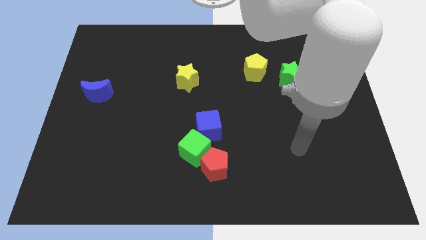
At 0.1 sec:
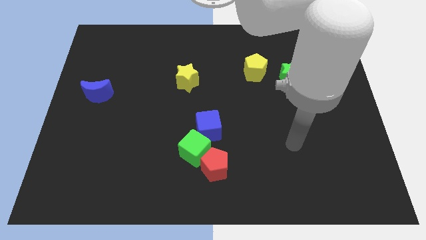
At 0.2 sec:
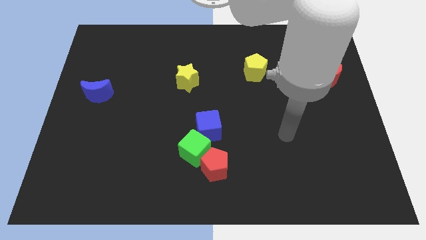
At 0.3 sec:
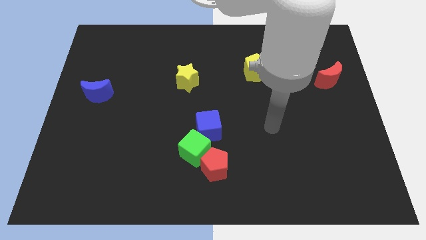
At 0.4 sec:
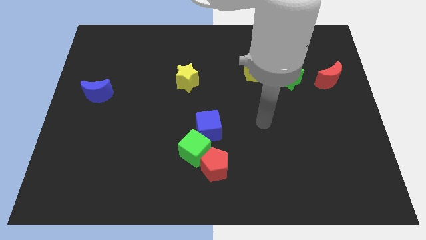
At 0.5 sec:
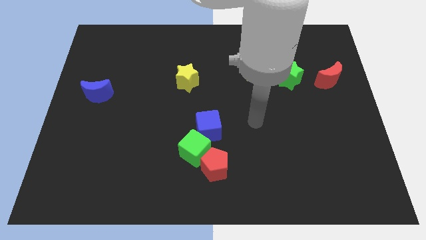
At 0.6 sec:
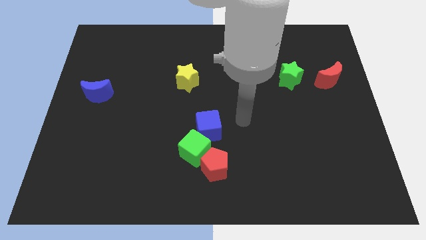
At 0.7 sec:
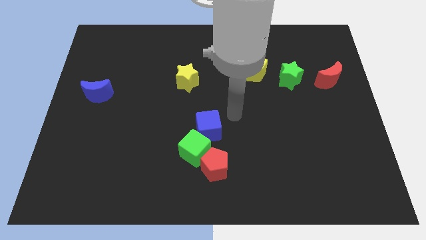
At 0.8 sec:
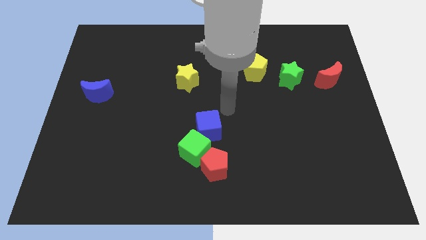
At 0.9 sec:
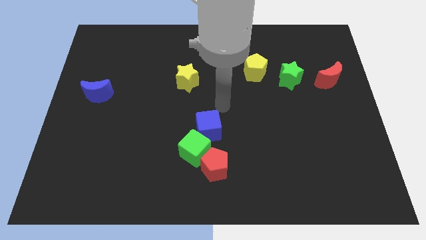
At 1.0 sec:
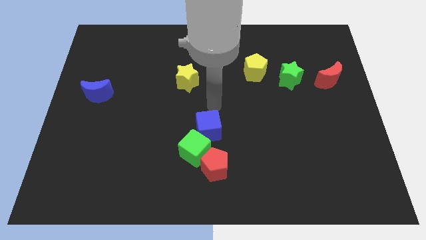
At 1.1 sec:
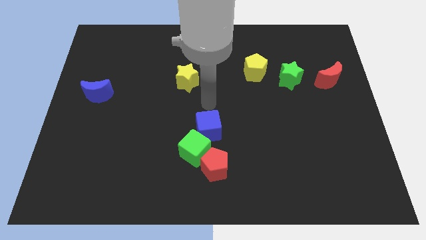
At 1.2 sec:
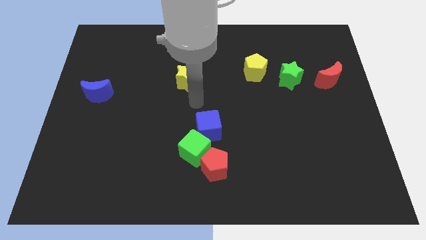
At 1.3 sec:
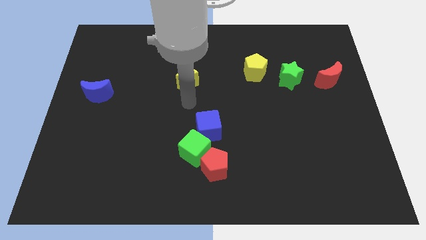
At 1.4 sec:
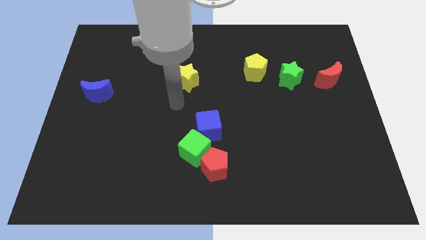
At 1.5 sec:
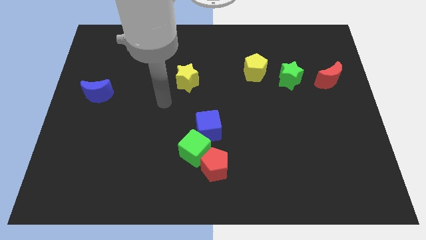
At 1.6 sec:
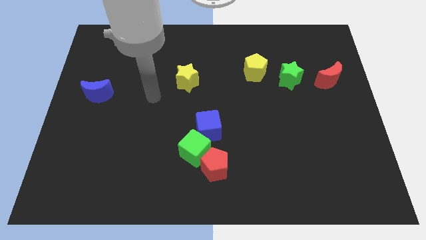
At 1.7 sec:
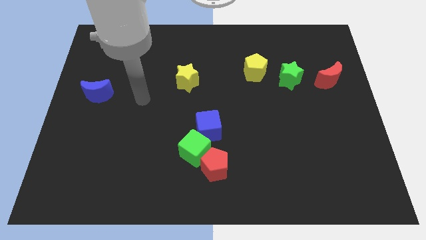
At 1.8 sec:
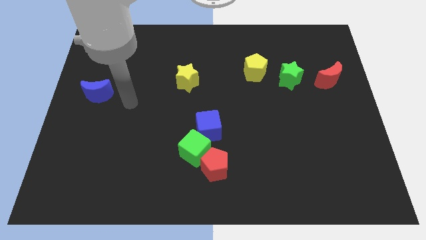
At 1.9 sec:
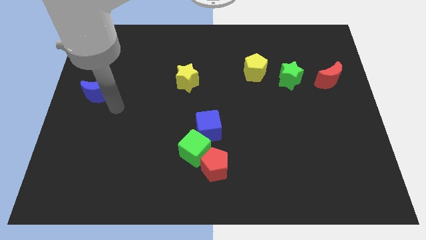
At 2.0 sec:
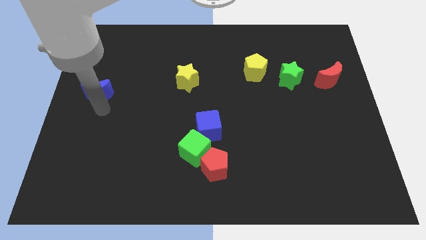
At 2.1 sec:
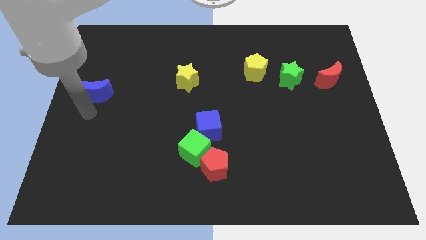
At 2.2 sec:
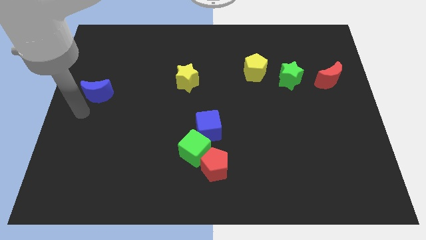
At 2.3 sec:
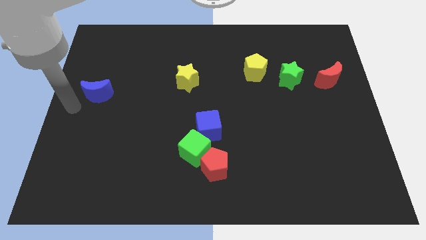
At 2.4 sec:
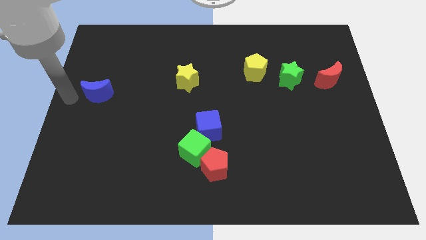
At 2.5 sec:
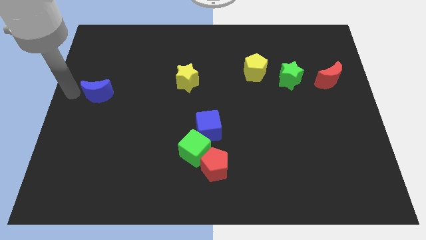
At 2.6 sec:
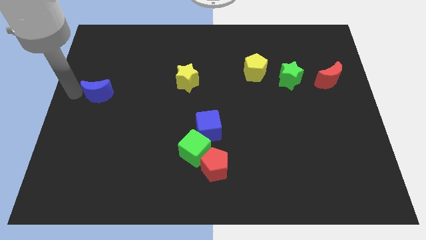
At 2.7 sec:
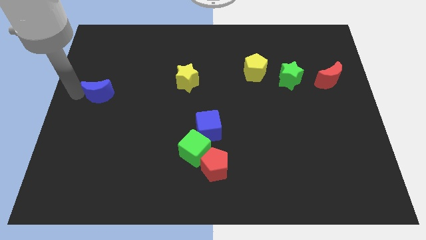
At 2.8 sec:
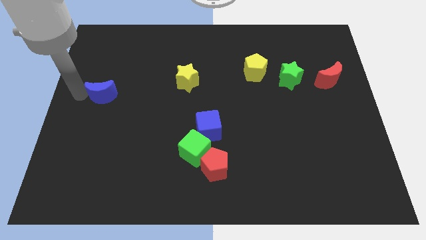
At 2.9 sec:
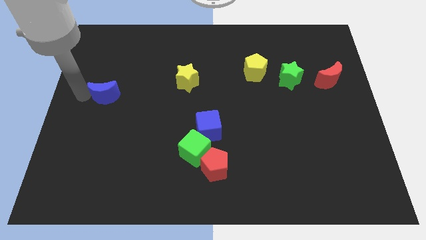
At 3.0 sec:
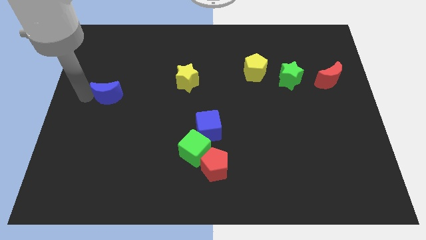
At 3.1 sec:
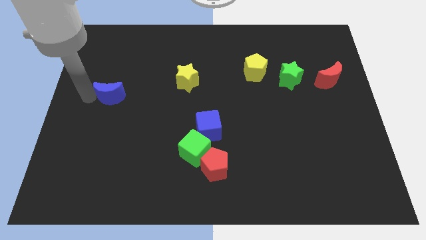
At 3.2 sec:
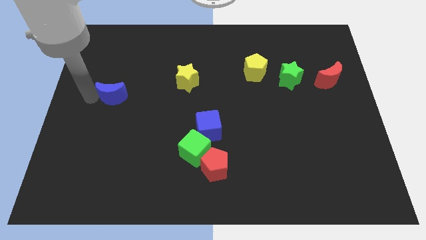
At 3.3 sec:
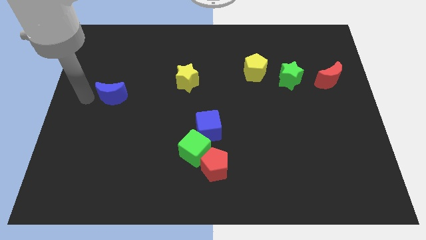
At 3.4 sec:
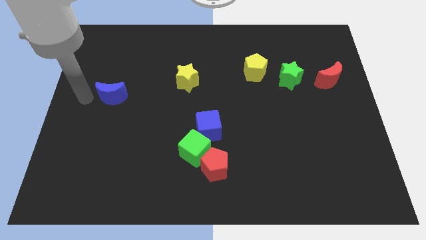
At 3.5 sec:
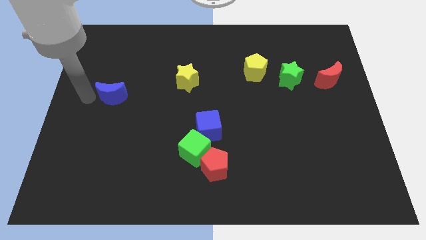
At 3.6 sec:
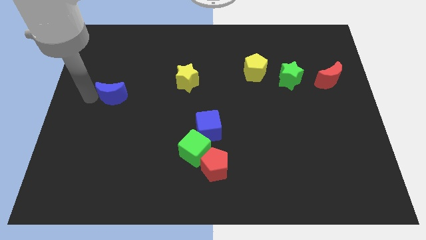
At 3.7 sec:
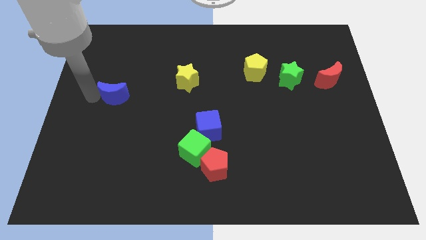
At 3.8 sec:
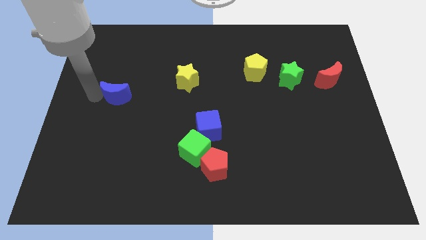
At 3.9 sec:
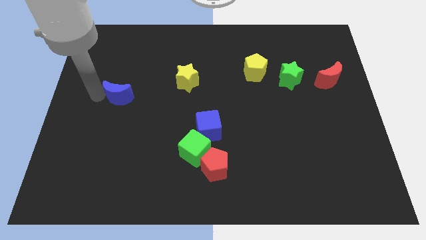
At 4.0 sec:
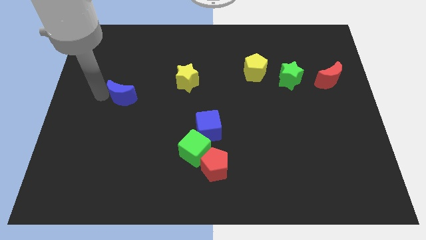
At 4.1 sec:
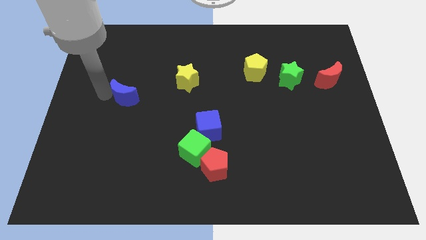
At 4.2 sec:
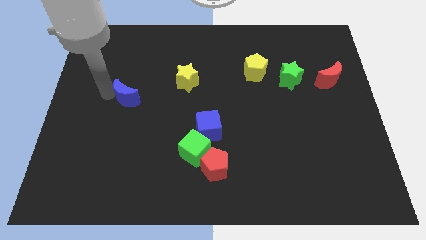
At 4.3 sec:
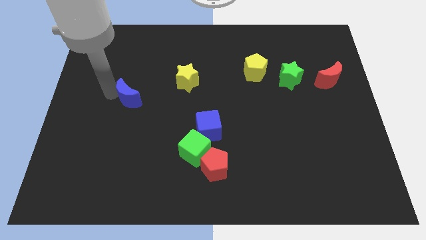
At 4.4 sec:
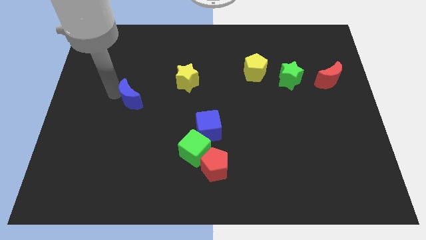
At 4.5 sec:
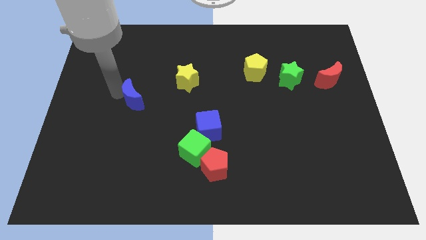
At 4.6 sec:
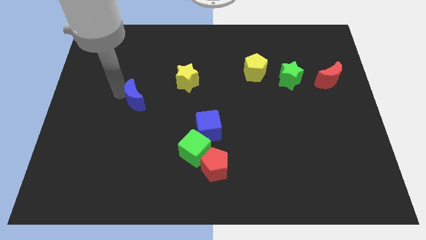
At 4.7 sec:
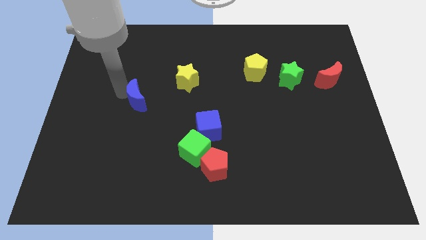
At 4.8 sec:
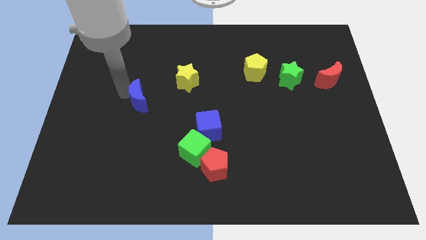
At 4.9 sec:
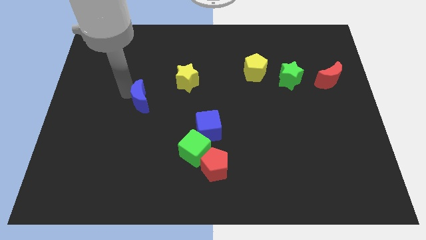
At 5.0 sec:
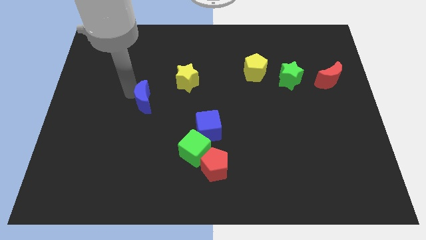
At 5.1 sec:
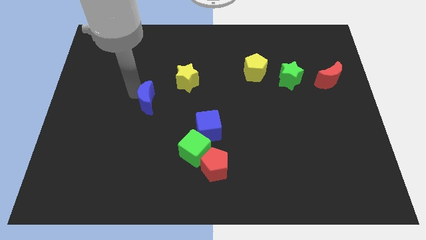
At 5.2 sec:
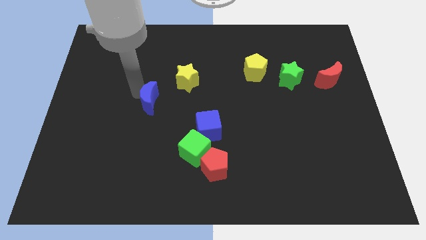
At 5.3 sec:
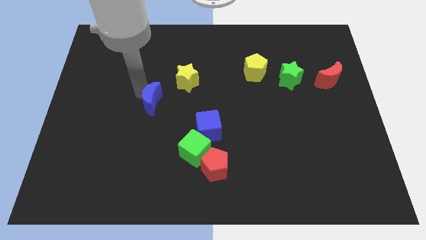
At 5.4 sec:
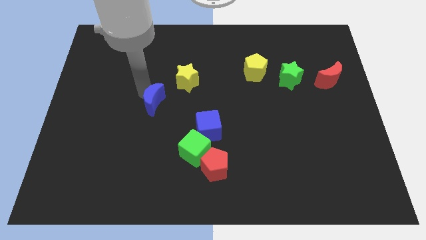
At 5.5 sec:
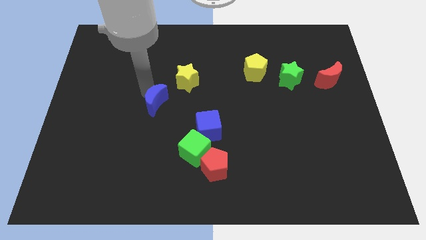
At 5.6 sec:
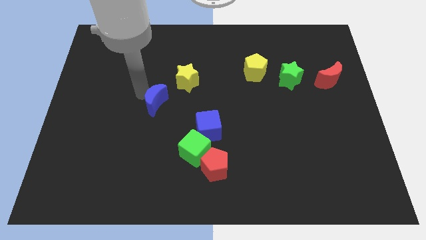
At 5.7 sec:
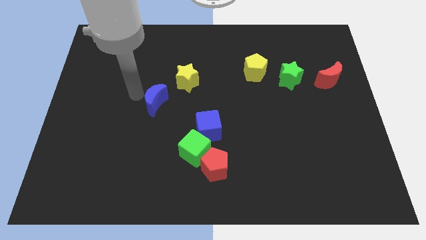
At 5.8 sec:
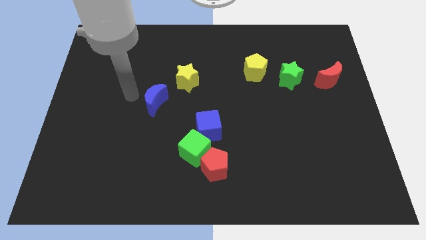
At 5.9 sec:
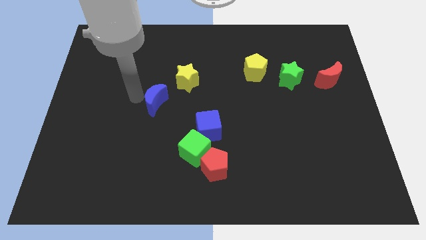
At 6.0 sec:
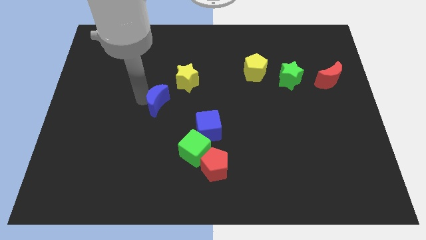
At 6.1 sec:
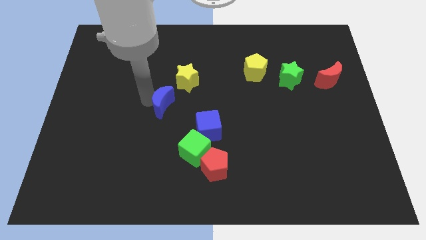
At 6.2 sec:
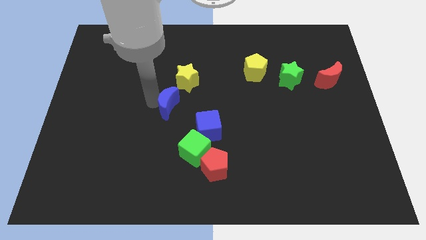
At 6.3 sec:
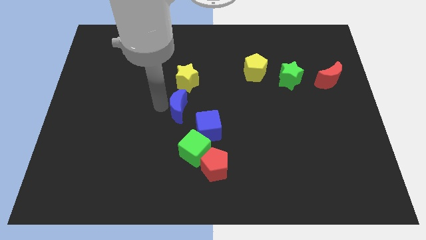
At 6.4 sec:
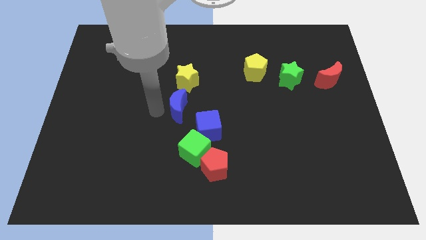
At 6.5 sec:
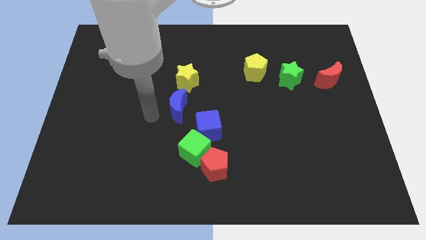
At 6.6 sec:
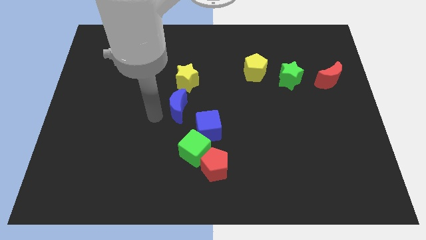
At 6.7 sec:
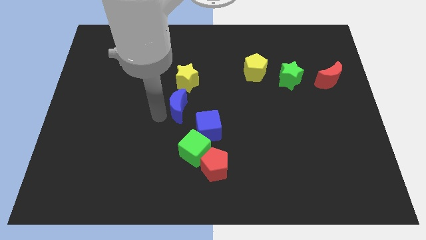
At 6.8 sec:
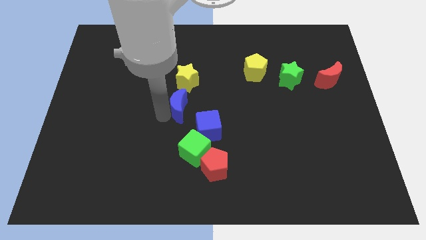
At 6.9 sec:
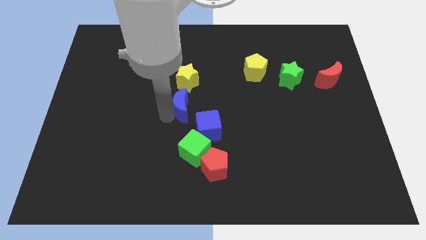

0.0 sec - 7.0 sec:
push the blue moon right

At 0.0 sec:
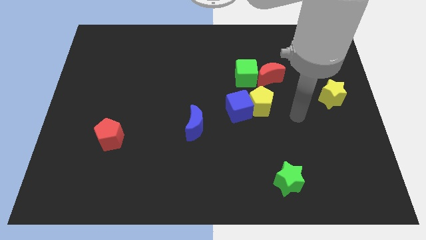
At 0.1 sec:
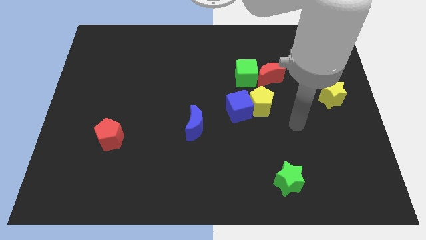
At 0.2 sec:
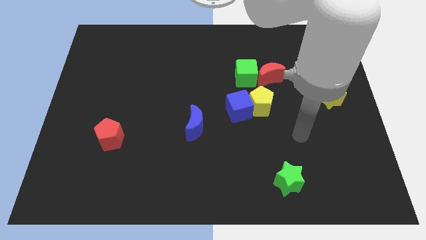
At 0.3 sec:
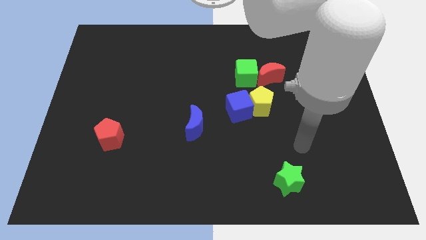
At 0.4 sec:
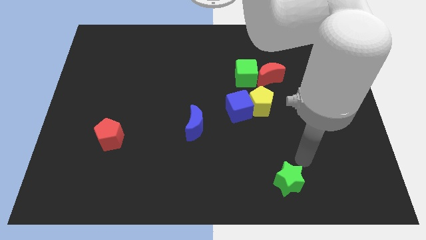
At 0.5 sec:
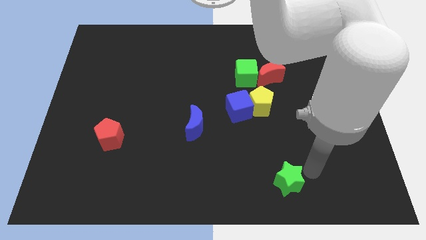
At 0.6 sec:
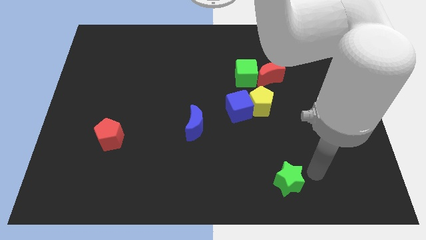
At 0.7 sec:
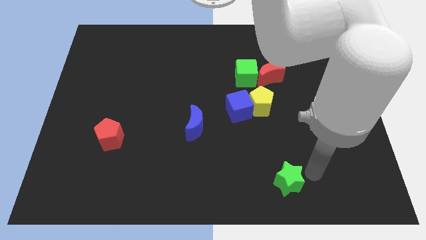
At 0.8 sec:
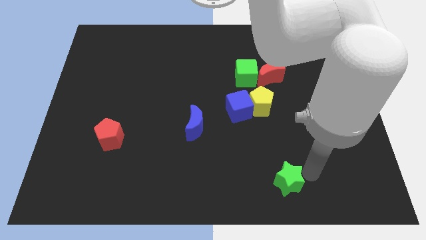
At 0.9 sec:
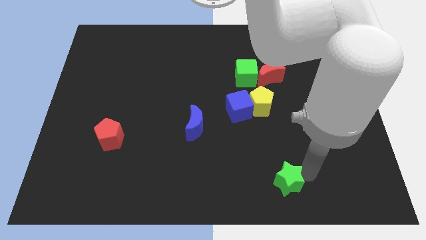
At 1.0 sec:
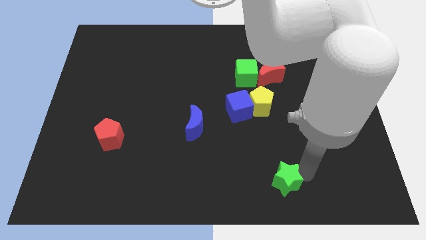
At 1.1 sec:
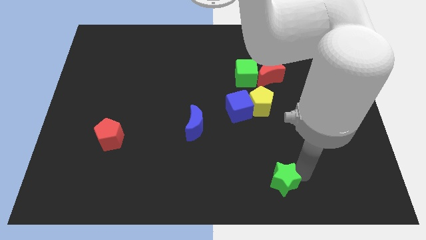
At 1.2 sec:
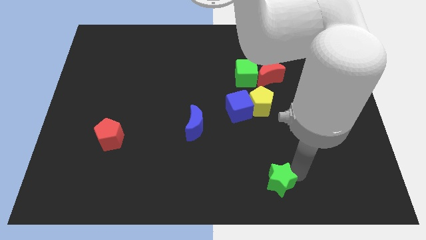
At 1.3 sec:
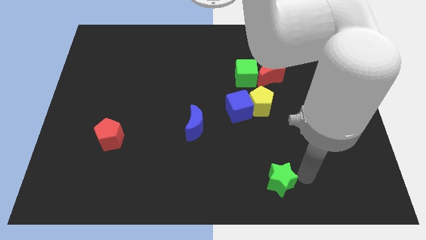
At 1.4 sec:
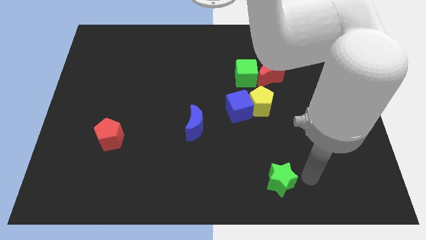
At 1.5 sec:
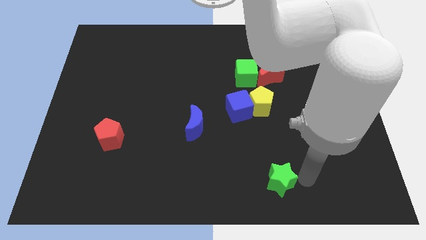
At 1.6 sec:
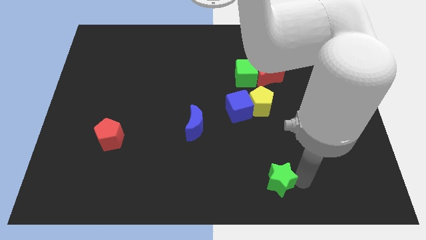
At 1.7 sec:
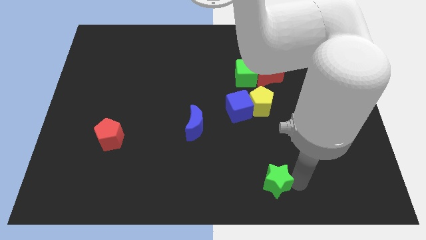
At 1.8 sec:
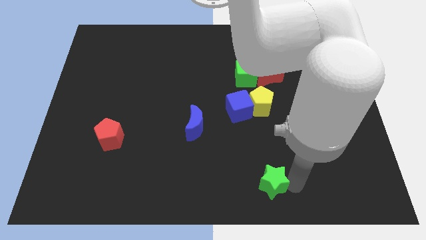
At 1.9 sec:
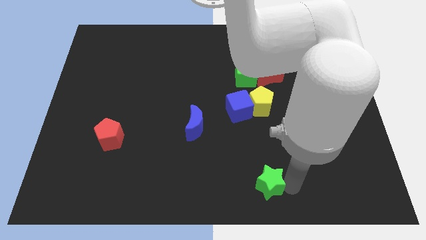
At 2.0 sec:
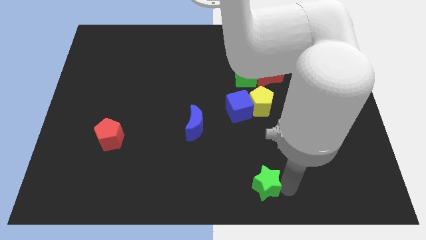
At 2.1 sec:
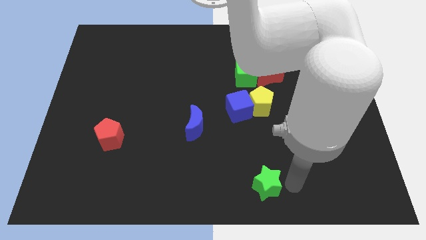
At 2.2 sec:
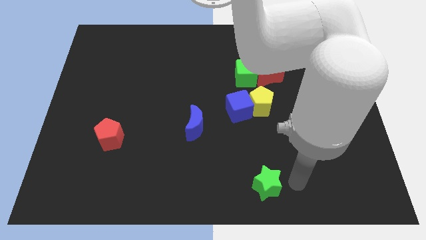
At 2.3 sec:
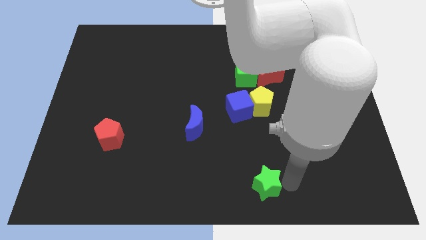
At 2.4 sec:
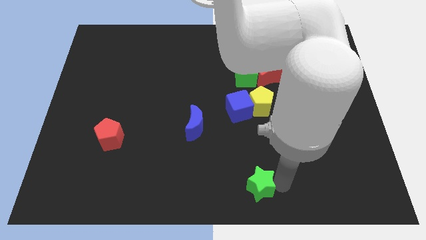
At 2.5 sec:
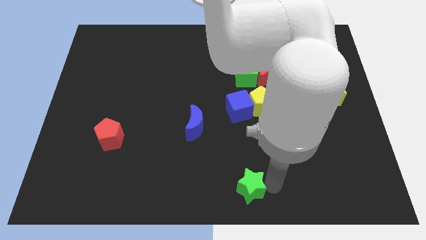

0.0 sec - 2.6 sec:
slightly push the green star left
